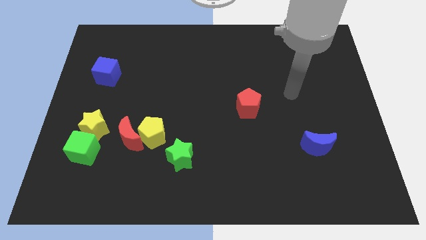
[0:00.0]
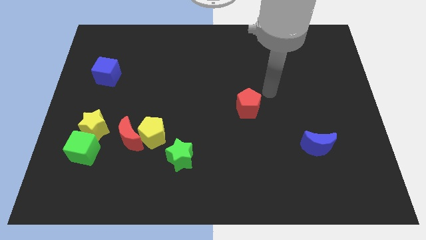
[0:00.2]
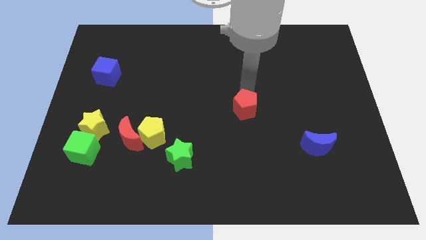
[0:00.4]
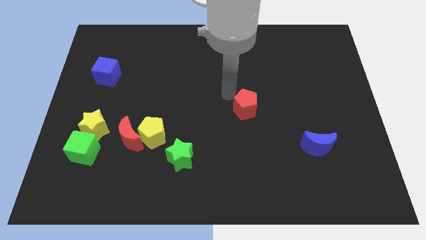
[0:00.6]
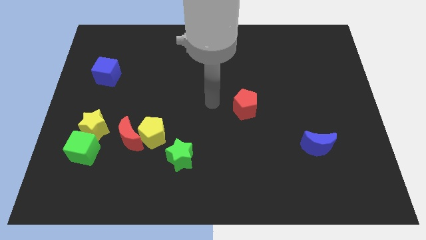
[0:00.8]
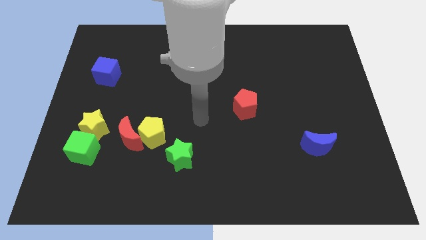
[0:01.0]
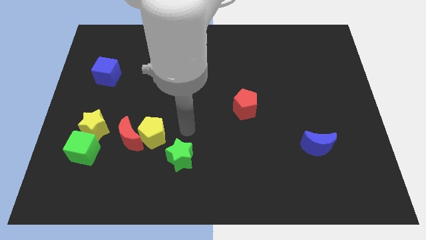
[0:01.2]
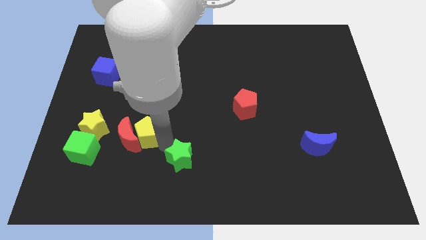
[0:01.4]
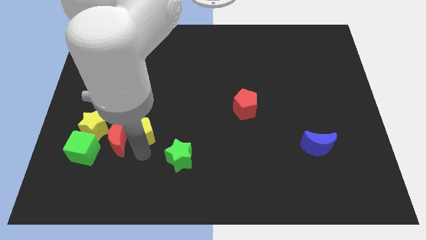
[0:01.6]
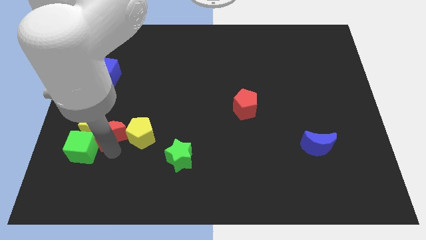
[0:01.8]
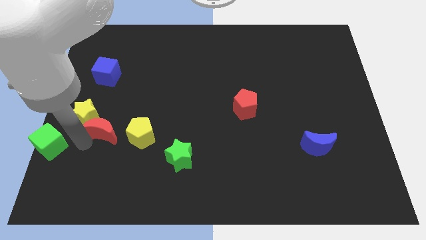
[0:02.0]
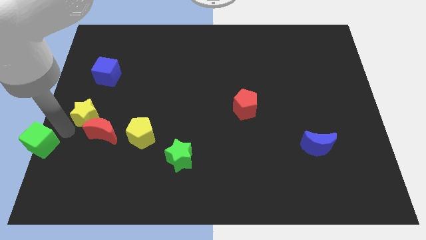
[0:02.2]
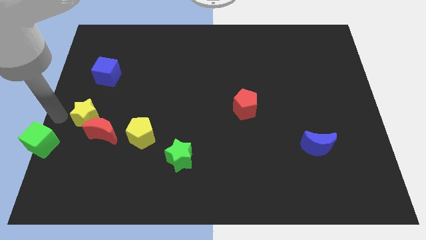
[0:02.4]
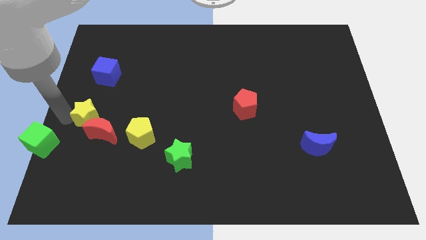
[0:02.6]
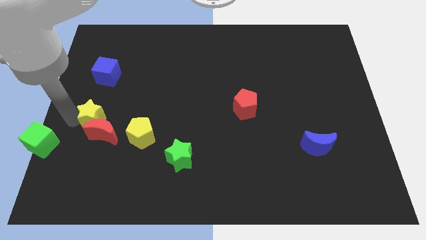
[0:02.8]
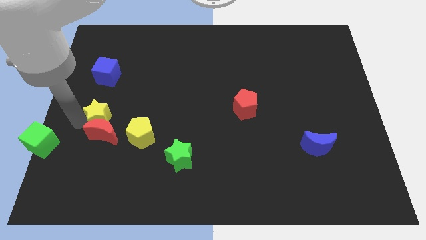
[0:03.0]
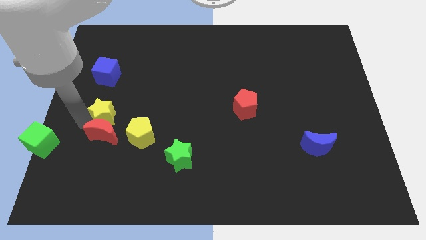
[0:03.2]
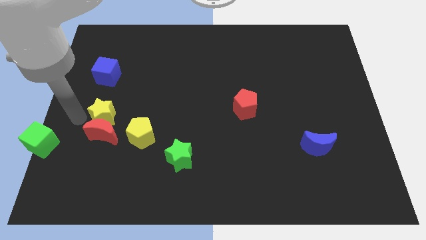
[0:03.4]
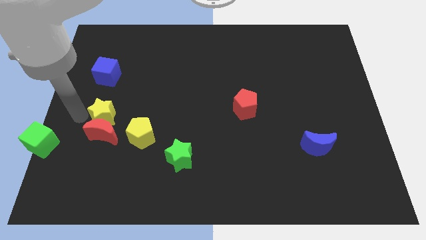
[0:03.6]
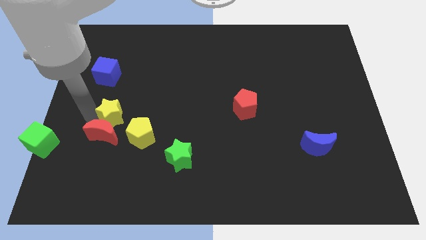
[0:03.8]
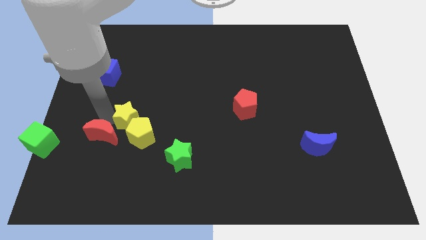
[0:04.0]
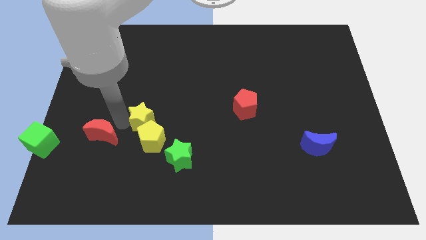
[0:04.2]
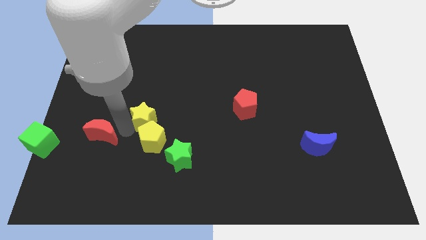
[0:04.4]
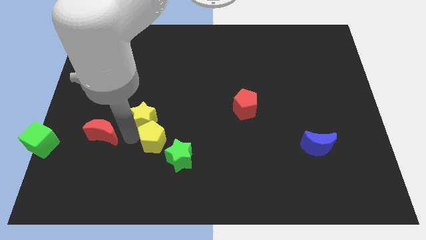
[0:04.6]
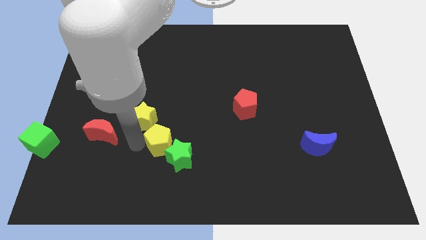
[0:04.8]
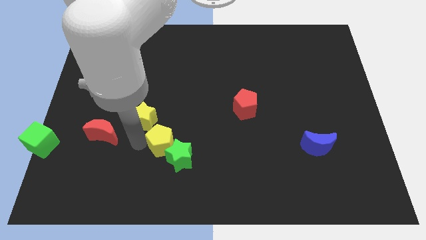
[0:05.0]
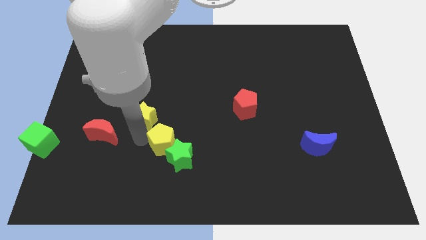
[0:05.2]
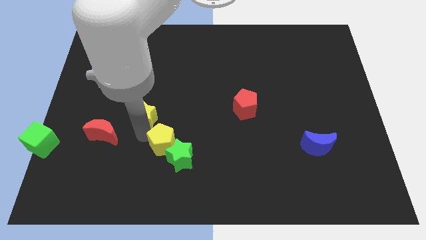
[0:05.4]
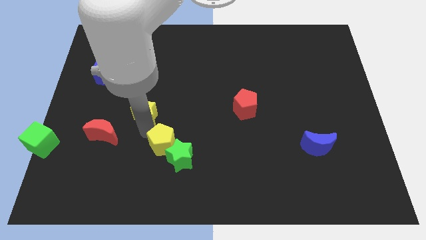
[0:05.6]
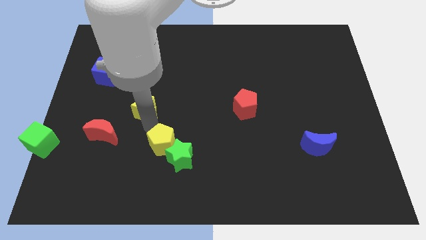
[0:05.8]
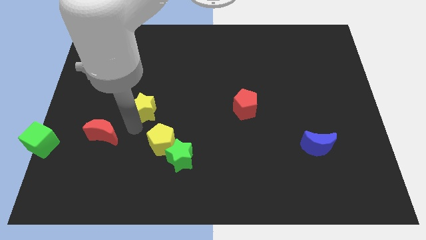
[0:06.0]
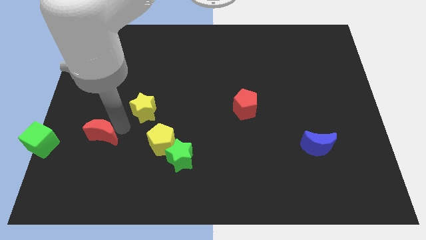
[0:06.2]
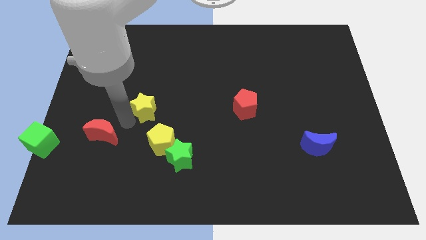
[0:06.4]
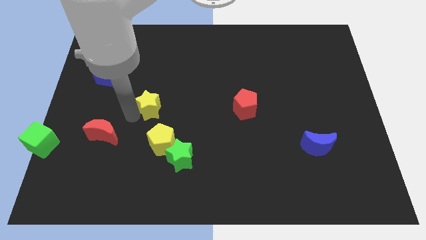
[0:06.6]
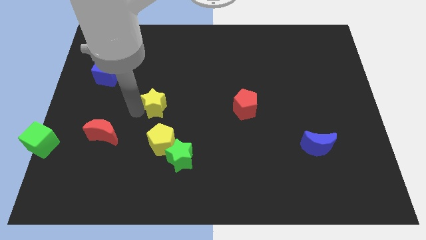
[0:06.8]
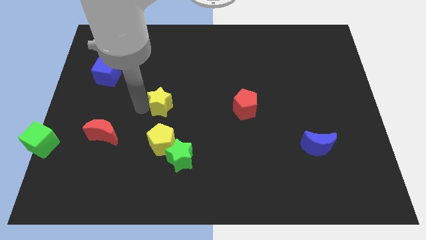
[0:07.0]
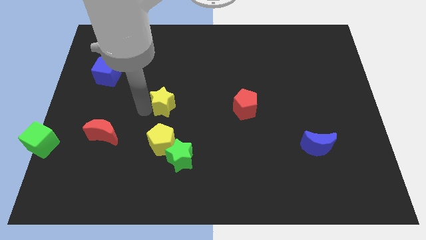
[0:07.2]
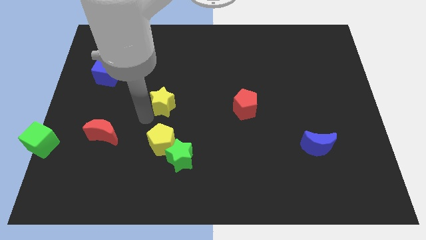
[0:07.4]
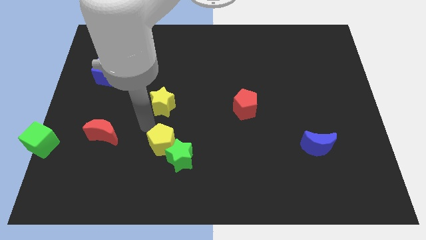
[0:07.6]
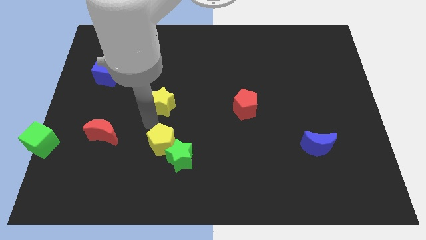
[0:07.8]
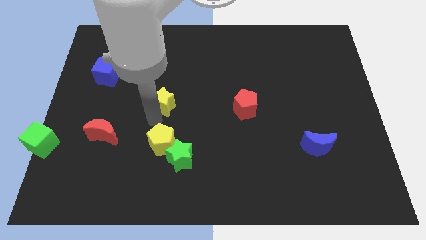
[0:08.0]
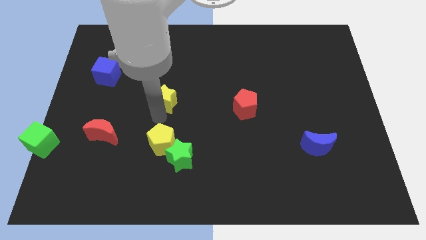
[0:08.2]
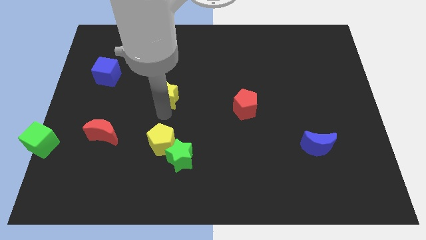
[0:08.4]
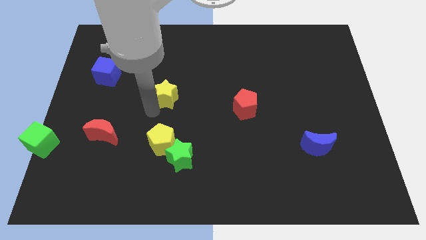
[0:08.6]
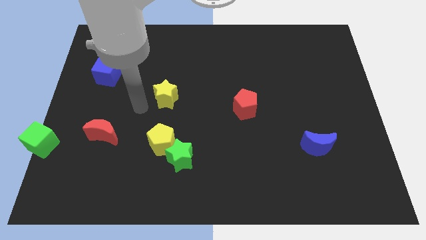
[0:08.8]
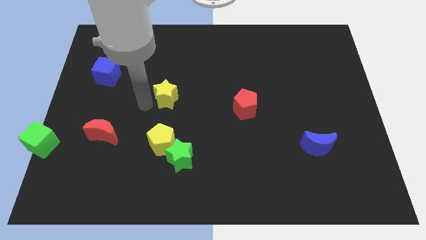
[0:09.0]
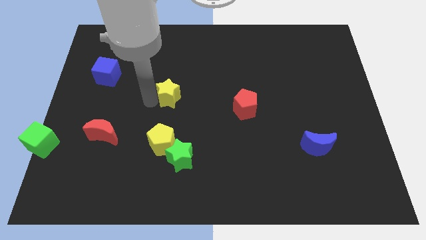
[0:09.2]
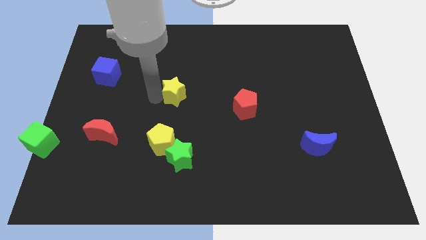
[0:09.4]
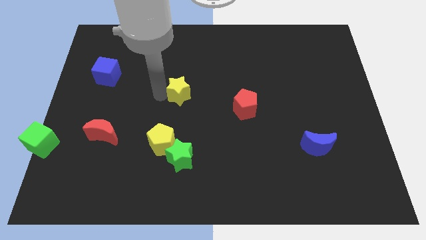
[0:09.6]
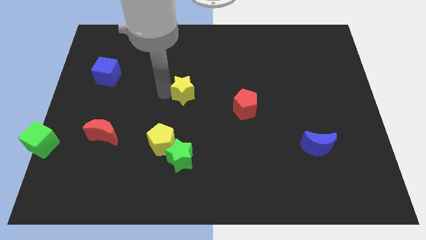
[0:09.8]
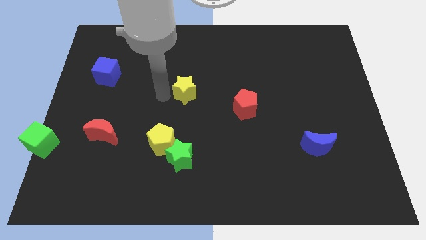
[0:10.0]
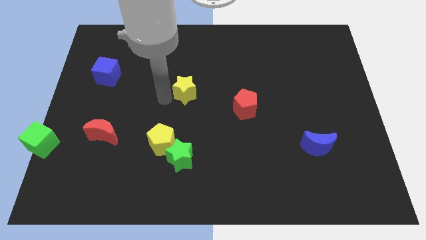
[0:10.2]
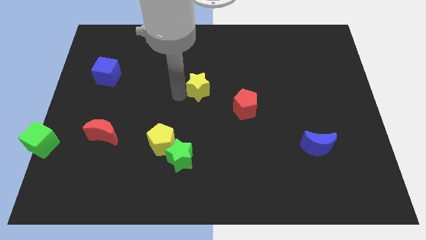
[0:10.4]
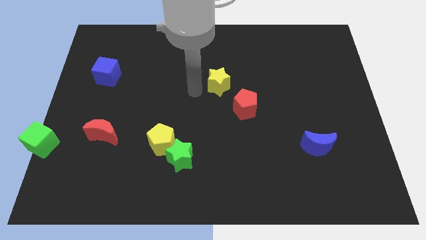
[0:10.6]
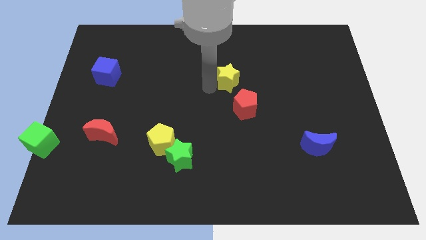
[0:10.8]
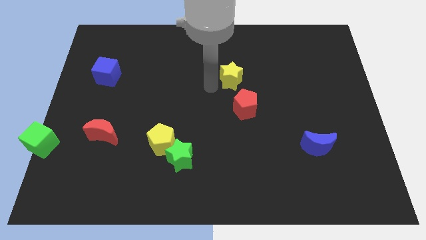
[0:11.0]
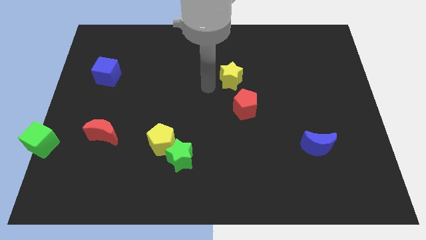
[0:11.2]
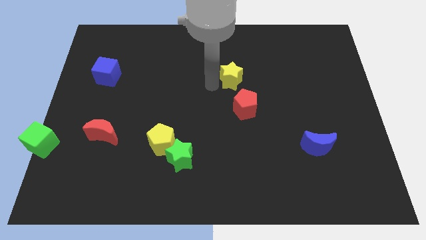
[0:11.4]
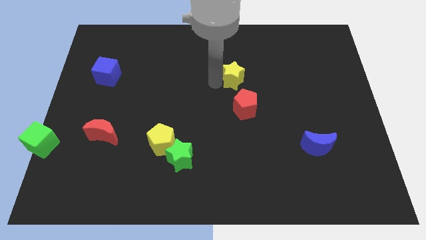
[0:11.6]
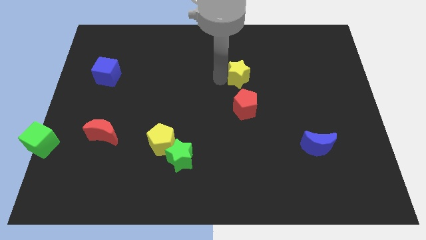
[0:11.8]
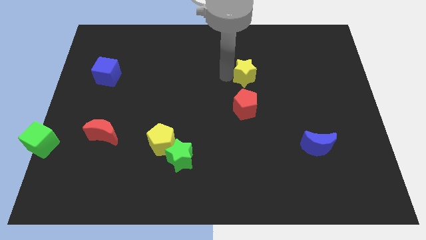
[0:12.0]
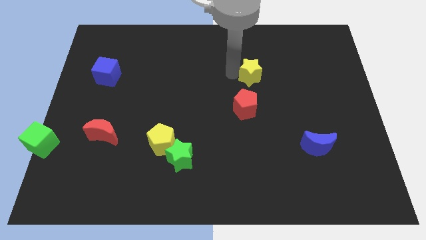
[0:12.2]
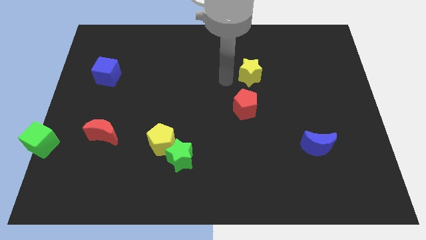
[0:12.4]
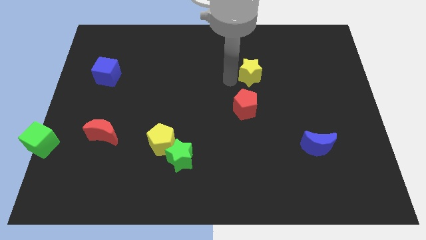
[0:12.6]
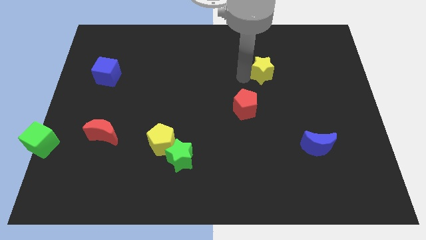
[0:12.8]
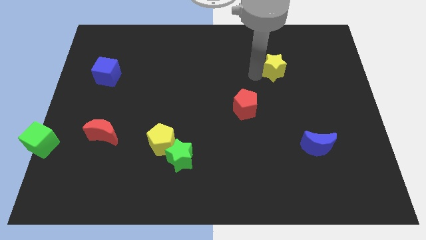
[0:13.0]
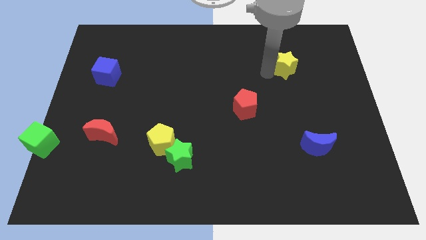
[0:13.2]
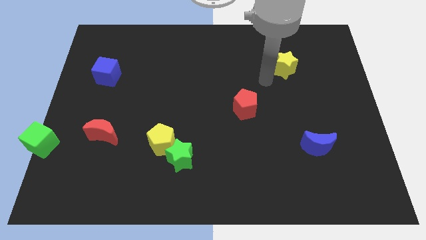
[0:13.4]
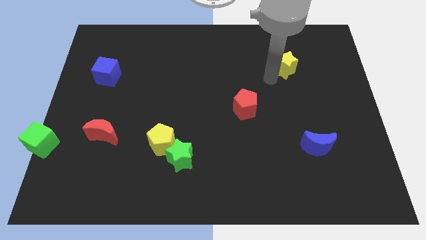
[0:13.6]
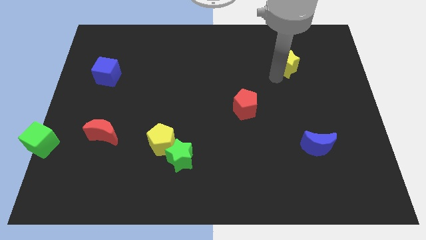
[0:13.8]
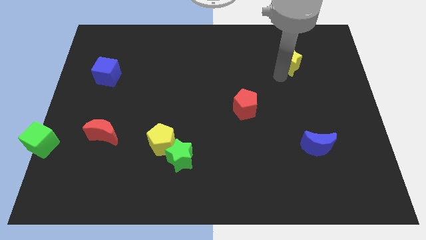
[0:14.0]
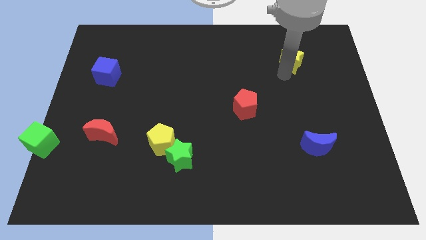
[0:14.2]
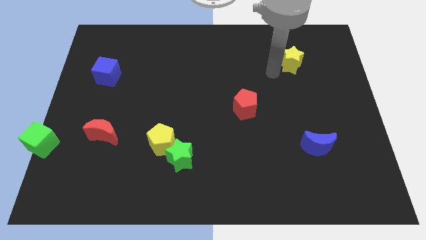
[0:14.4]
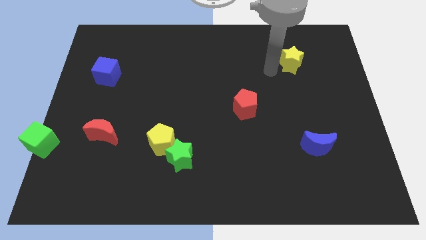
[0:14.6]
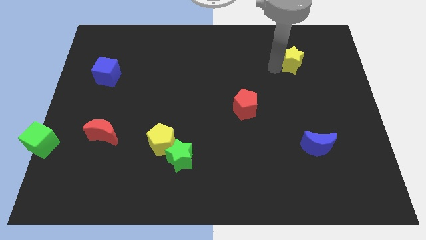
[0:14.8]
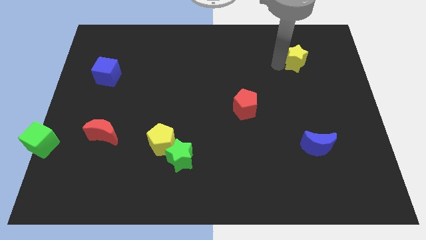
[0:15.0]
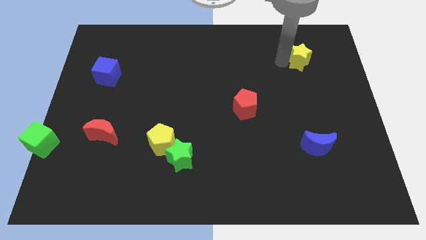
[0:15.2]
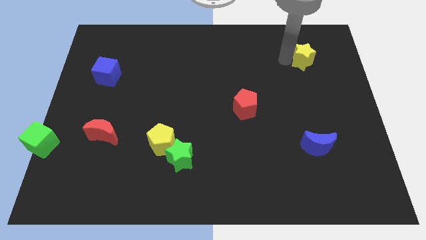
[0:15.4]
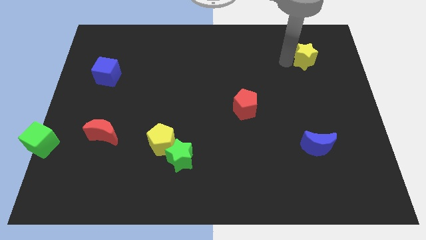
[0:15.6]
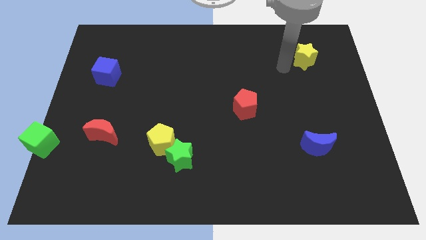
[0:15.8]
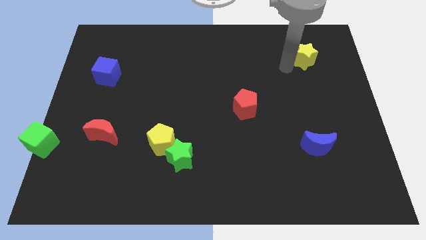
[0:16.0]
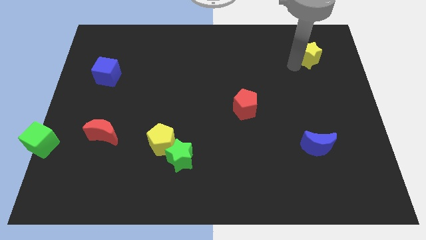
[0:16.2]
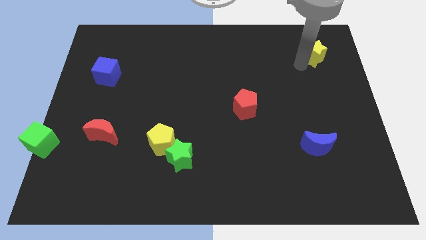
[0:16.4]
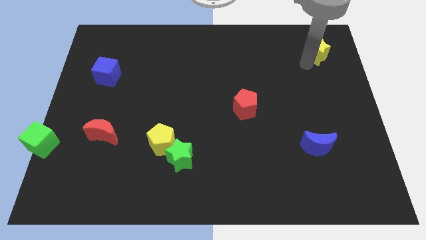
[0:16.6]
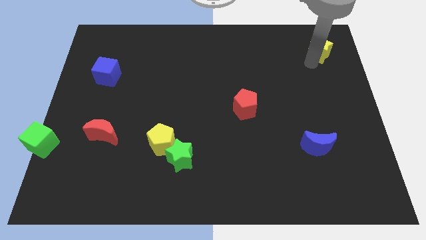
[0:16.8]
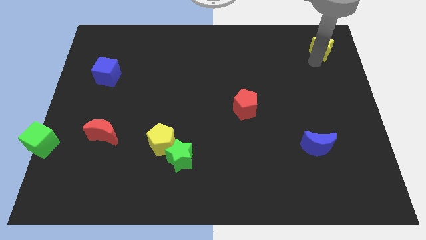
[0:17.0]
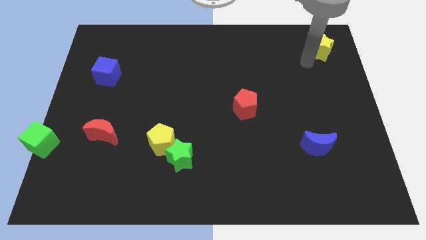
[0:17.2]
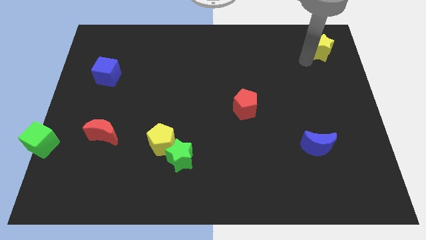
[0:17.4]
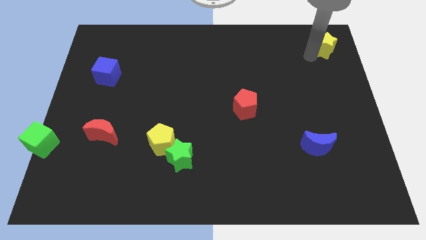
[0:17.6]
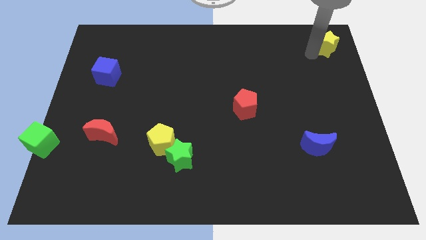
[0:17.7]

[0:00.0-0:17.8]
move the yellow star to the upper right corner
